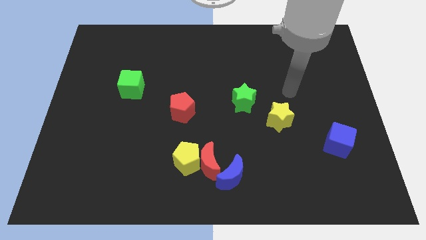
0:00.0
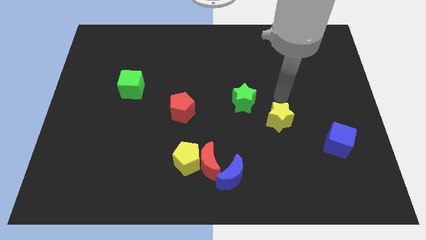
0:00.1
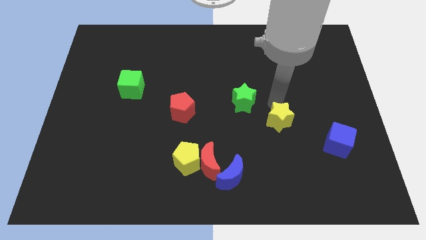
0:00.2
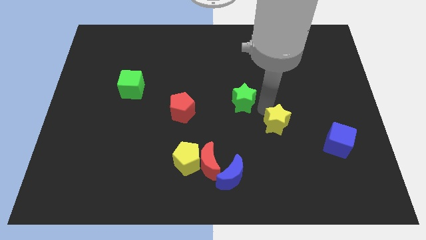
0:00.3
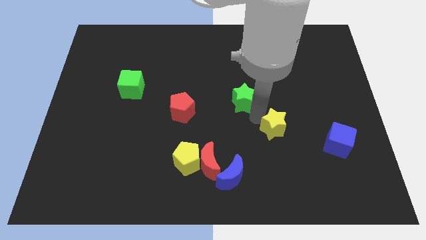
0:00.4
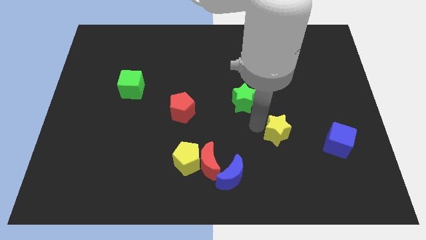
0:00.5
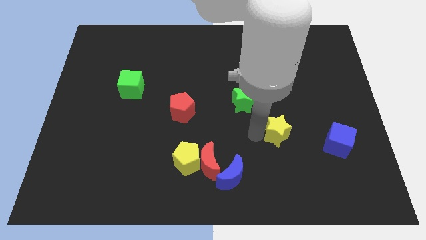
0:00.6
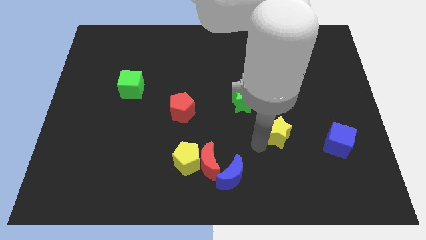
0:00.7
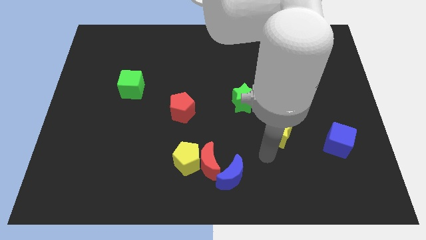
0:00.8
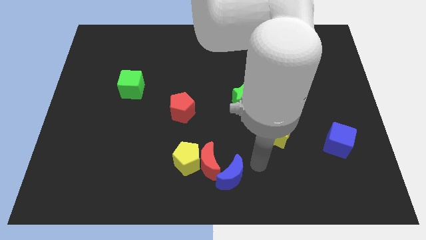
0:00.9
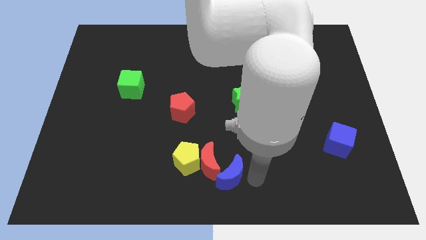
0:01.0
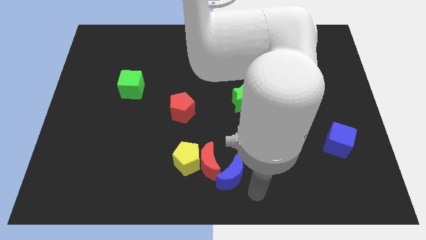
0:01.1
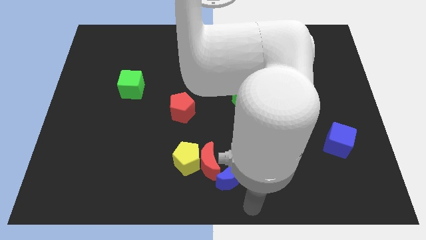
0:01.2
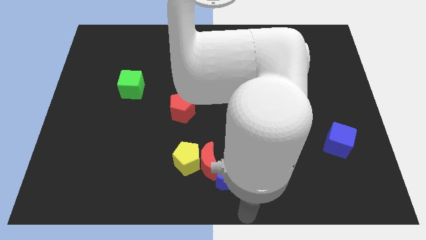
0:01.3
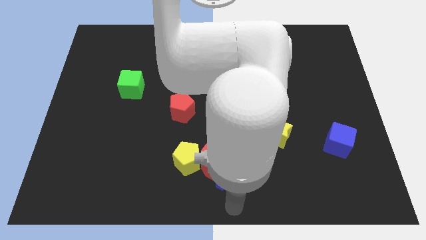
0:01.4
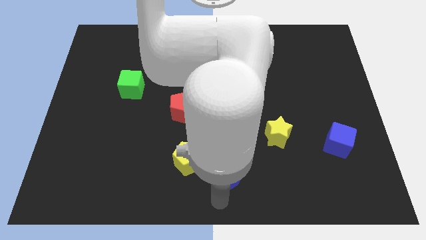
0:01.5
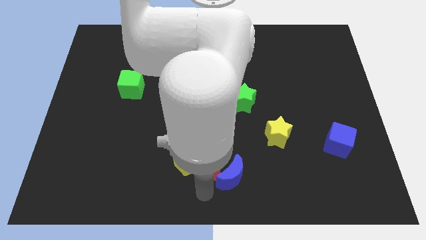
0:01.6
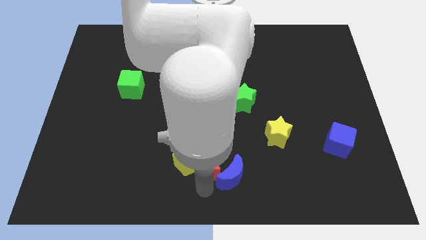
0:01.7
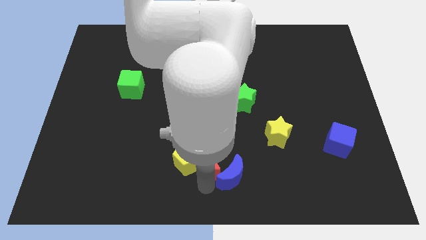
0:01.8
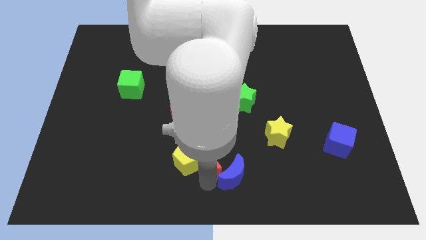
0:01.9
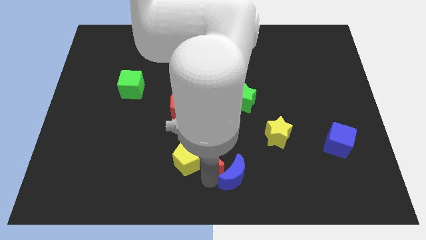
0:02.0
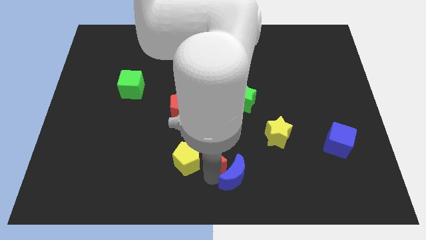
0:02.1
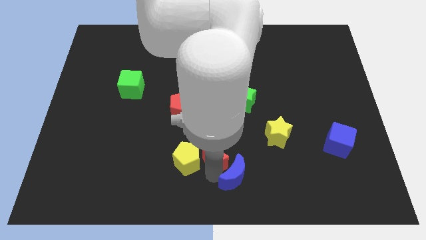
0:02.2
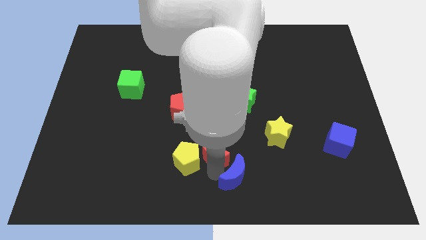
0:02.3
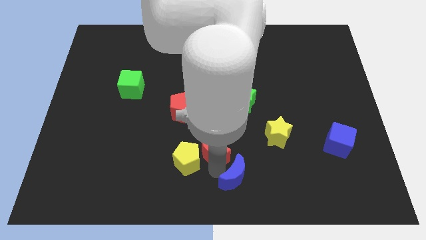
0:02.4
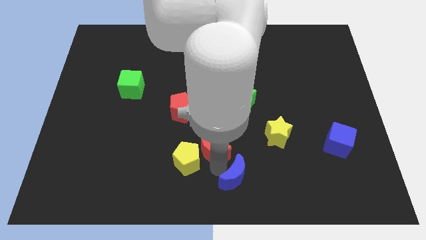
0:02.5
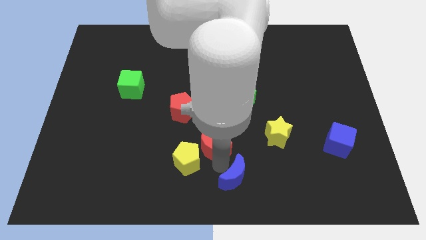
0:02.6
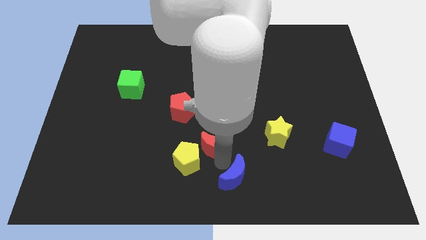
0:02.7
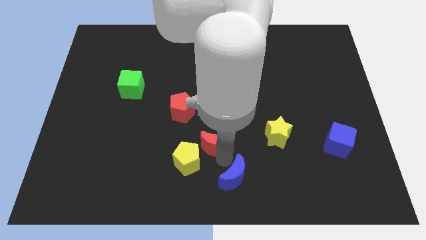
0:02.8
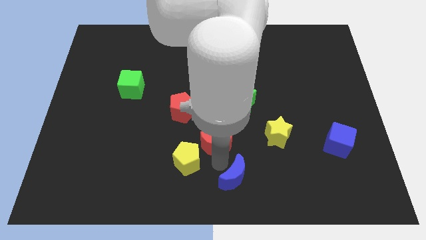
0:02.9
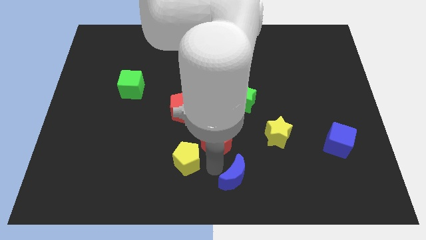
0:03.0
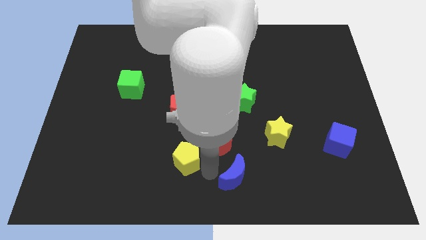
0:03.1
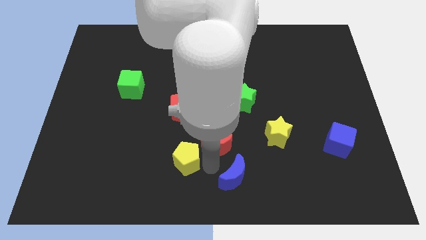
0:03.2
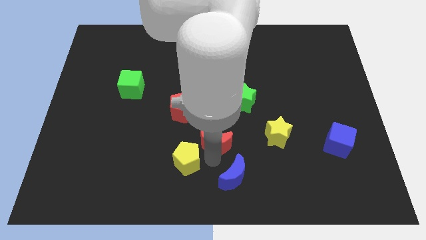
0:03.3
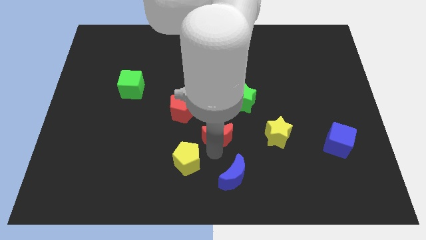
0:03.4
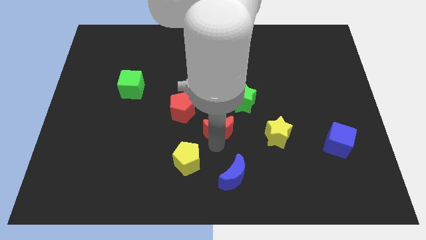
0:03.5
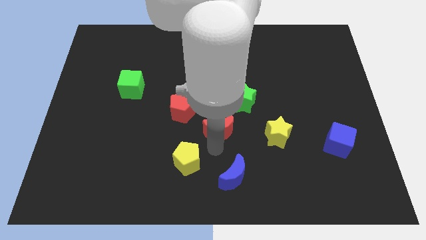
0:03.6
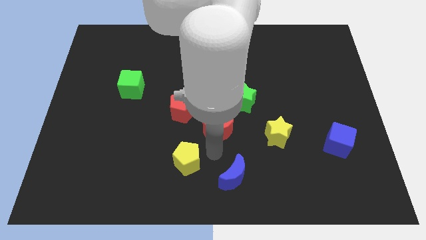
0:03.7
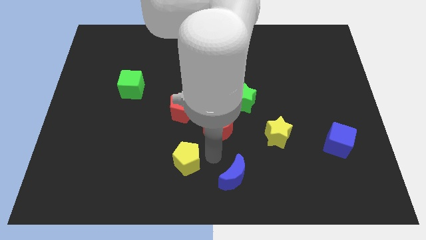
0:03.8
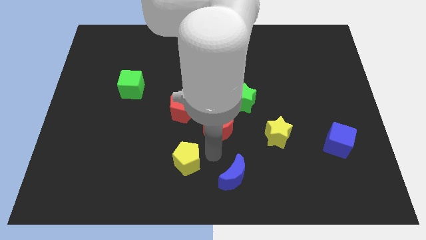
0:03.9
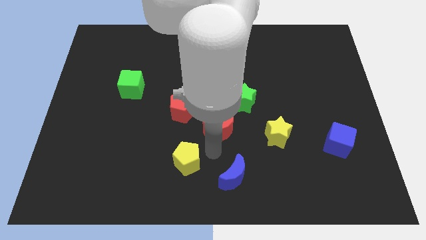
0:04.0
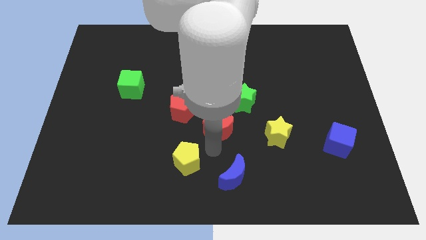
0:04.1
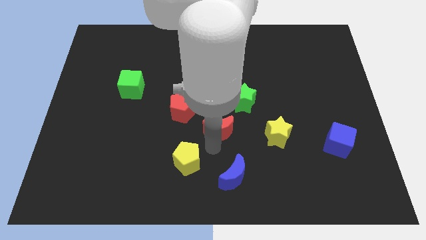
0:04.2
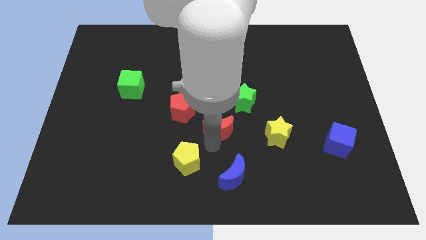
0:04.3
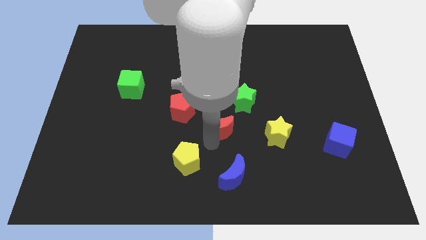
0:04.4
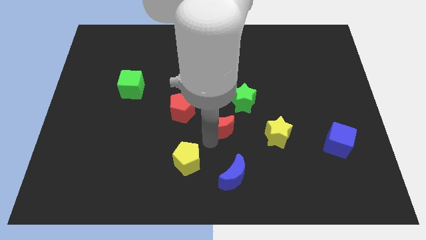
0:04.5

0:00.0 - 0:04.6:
separate the red moon from the yellow pentagon and blue moon

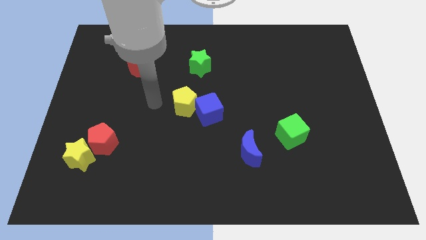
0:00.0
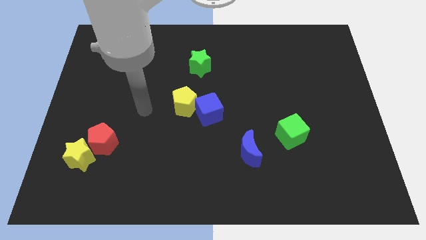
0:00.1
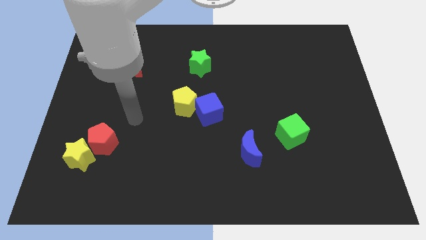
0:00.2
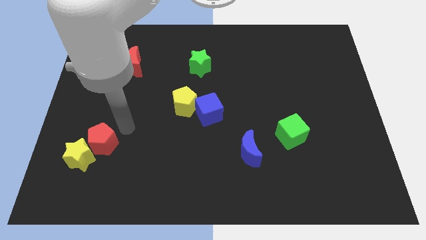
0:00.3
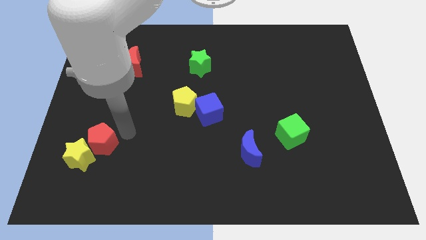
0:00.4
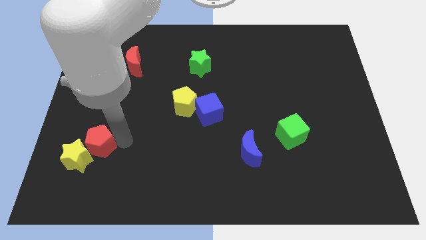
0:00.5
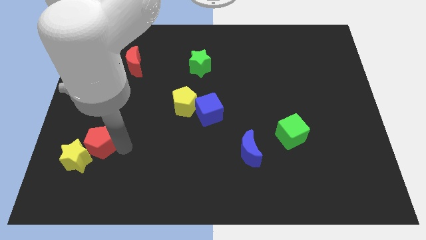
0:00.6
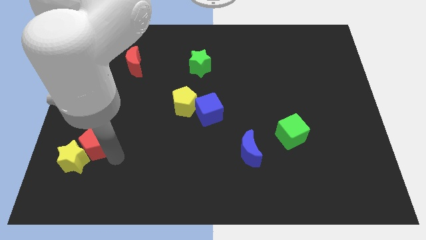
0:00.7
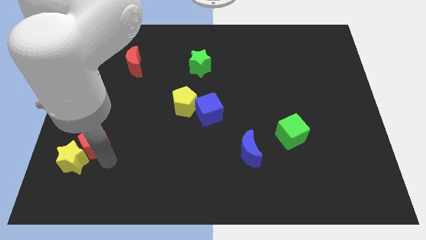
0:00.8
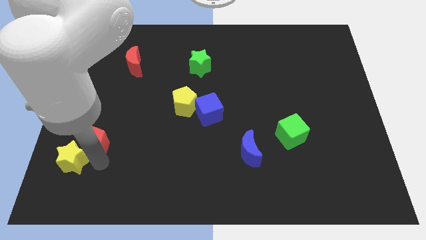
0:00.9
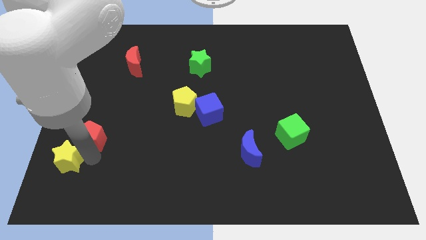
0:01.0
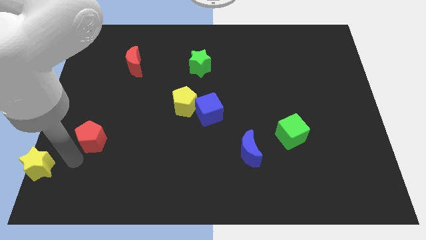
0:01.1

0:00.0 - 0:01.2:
pull the red pentagon apart from the yellow star

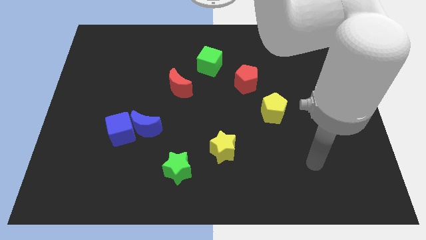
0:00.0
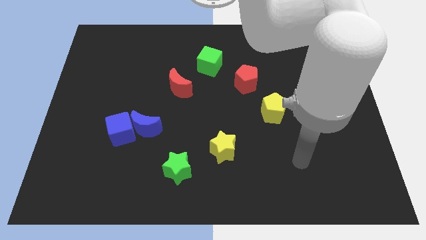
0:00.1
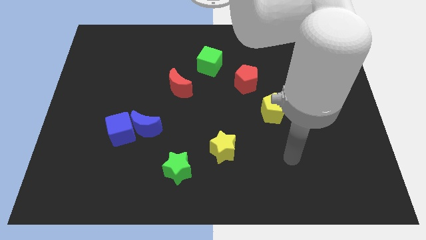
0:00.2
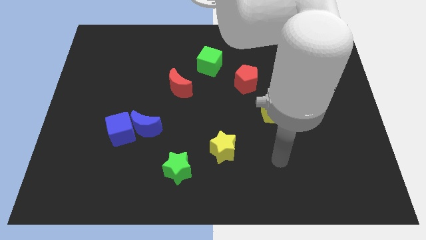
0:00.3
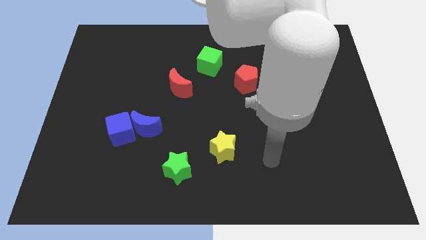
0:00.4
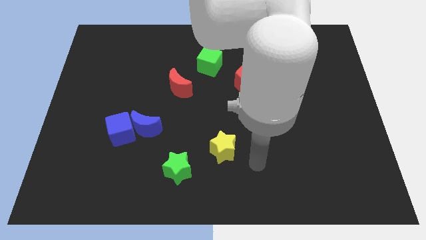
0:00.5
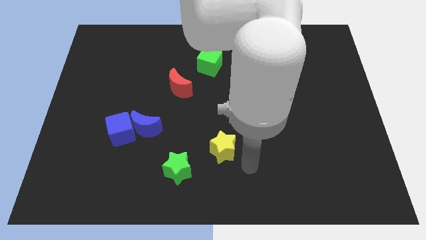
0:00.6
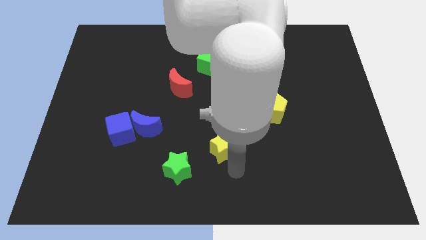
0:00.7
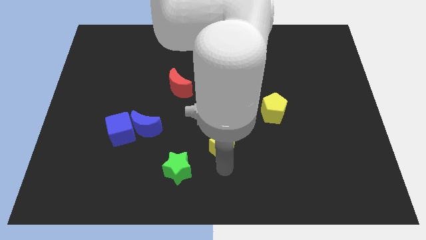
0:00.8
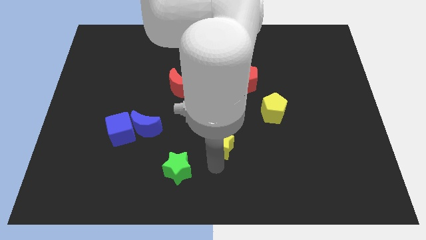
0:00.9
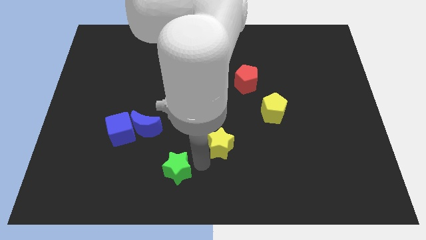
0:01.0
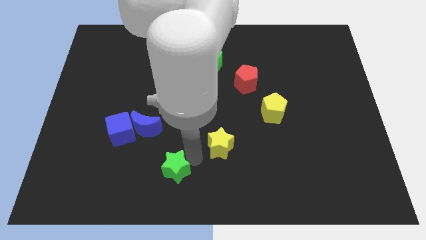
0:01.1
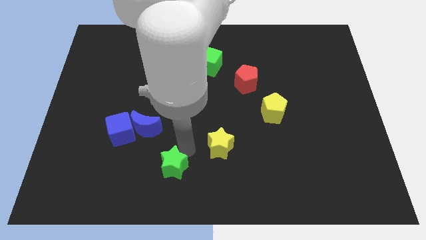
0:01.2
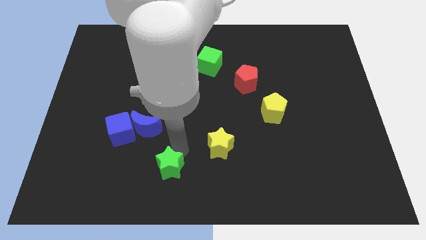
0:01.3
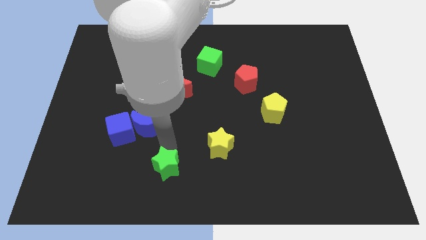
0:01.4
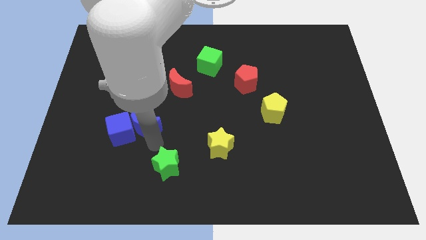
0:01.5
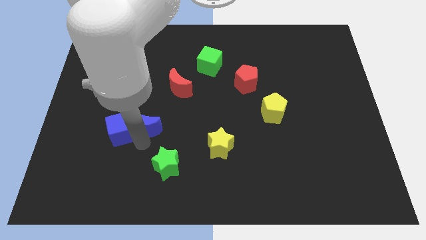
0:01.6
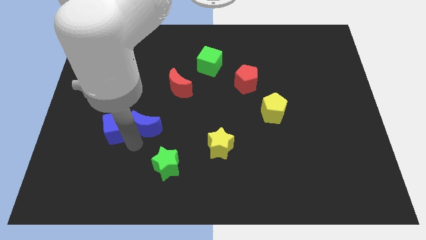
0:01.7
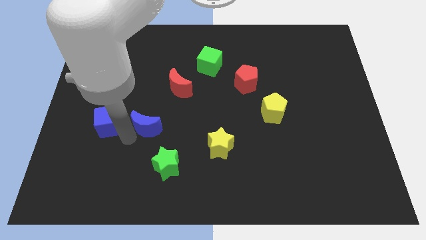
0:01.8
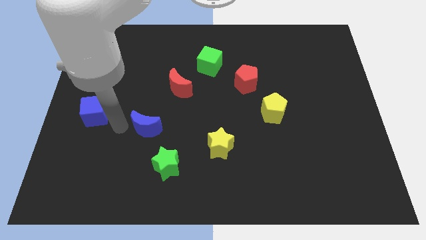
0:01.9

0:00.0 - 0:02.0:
separate the blue moon from the blue cube

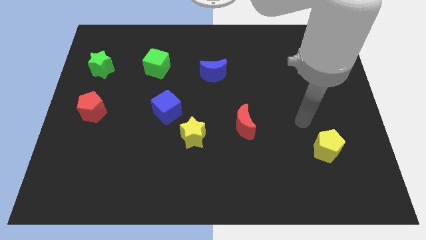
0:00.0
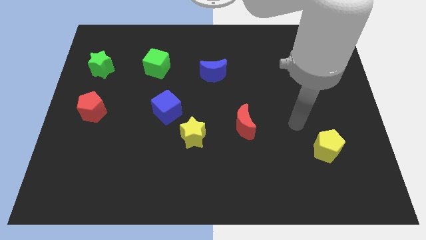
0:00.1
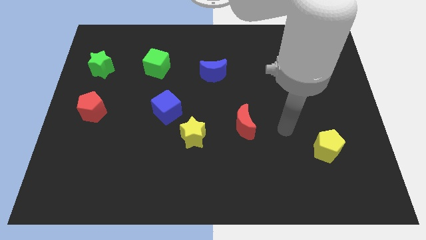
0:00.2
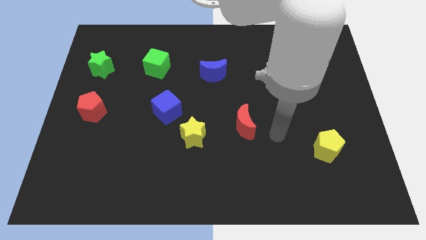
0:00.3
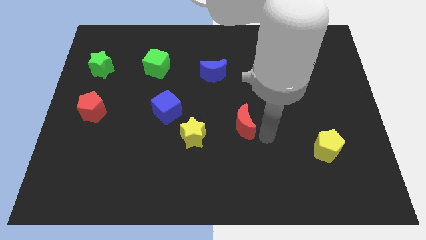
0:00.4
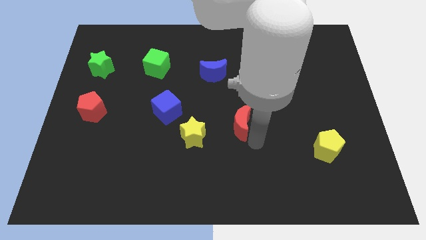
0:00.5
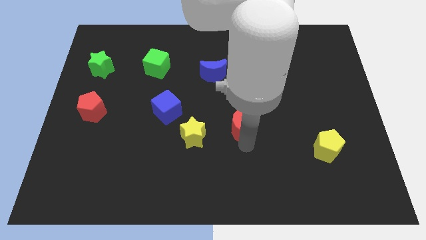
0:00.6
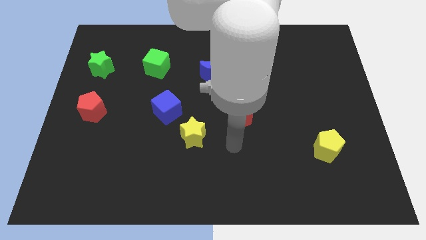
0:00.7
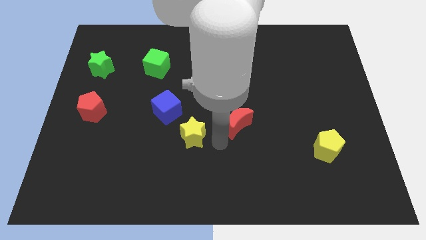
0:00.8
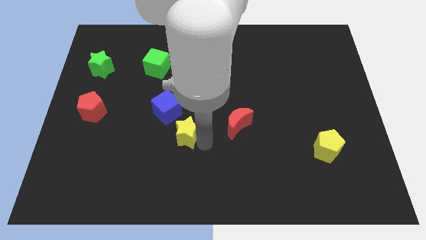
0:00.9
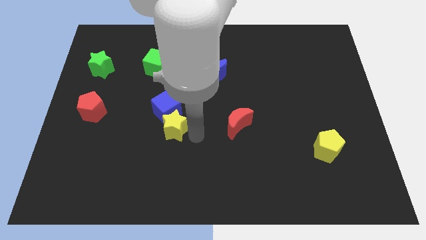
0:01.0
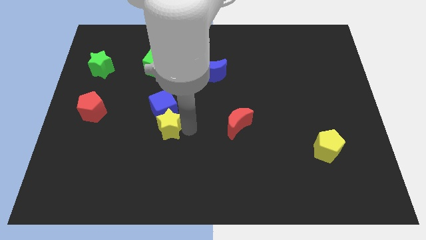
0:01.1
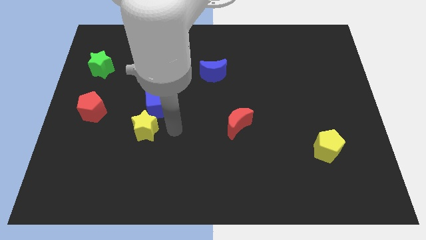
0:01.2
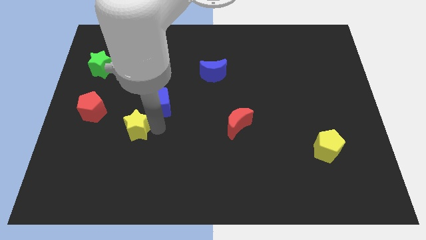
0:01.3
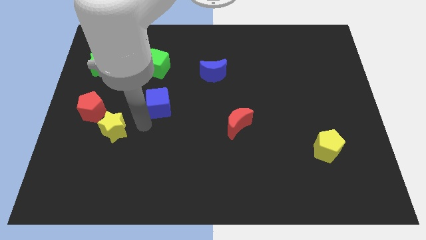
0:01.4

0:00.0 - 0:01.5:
separate the blue cube from the yellow star

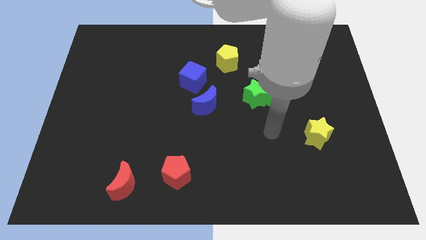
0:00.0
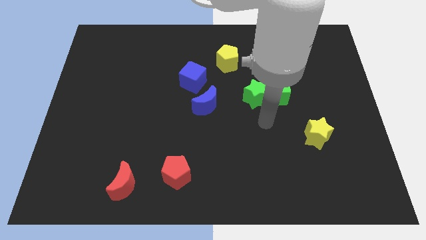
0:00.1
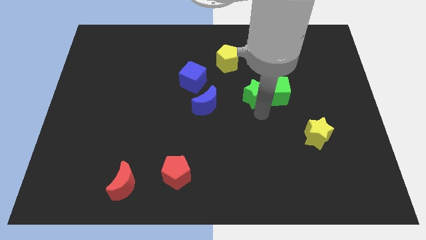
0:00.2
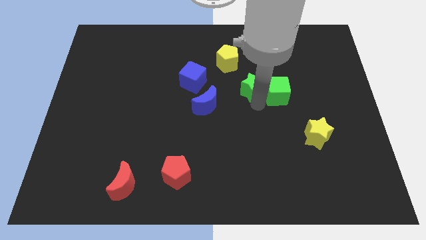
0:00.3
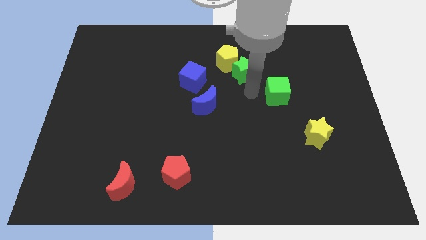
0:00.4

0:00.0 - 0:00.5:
pull the green cube apart from the green star
